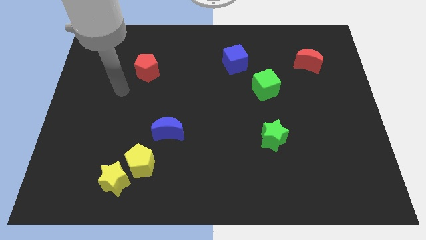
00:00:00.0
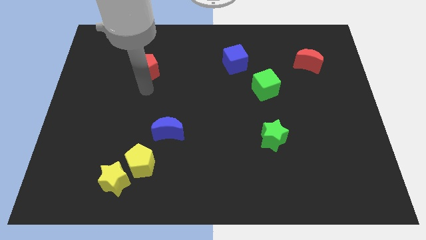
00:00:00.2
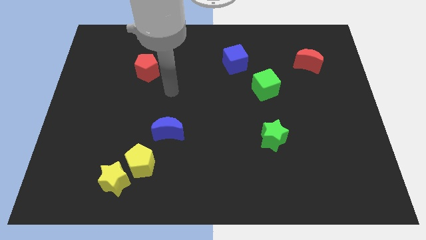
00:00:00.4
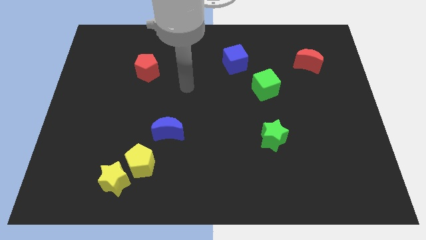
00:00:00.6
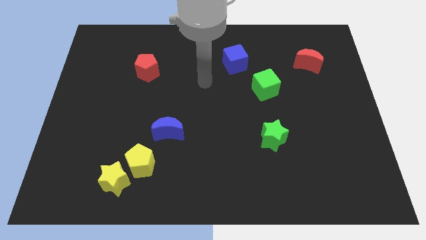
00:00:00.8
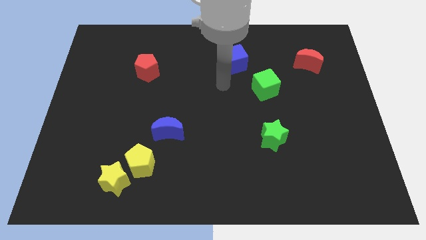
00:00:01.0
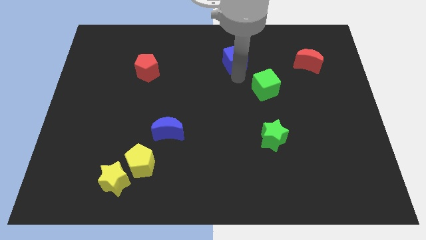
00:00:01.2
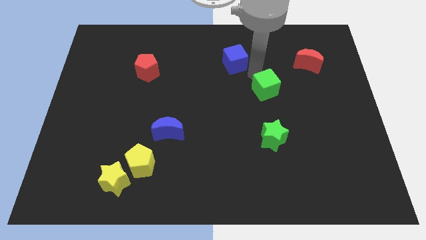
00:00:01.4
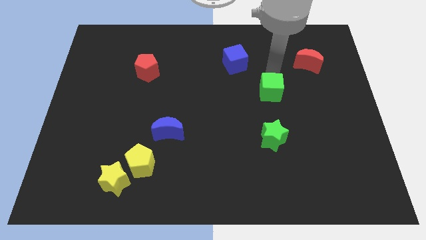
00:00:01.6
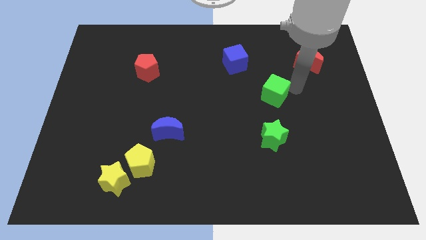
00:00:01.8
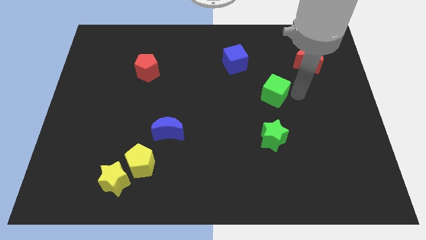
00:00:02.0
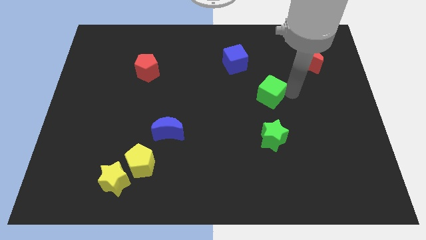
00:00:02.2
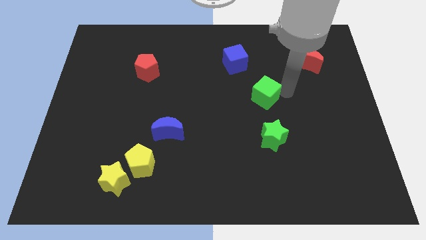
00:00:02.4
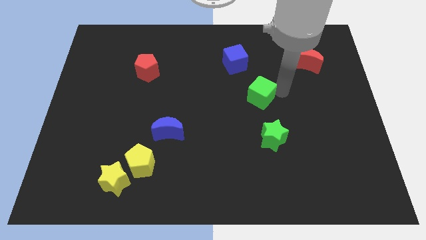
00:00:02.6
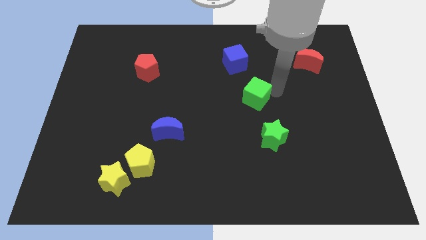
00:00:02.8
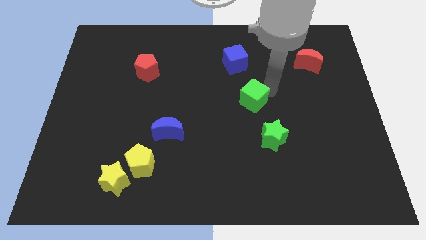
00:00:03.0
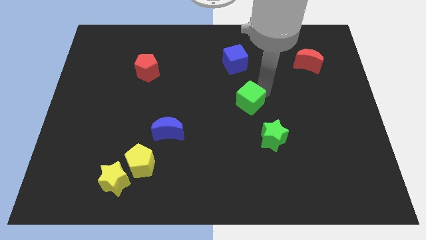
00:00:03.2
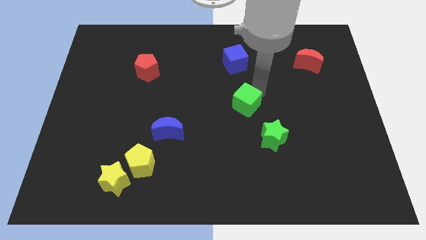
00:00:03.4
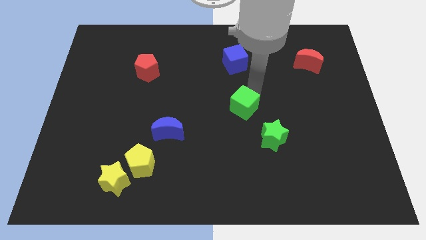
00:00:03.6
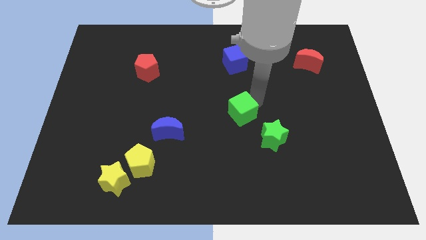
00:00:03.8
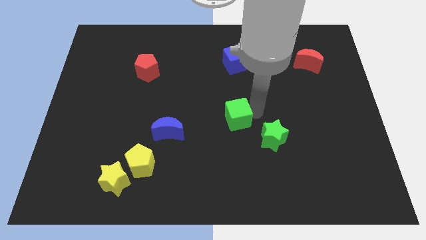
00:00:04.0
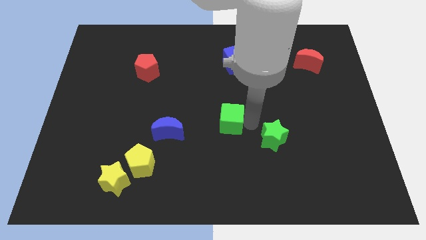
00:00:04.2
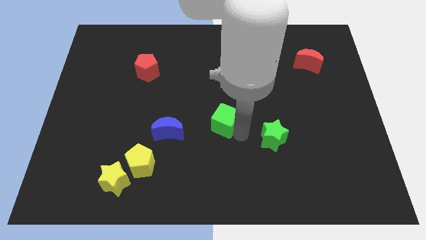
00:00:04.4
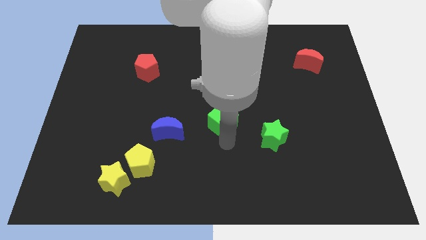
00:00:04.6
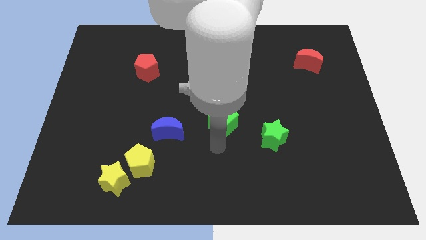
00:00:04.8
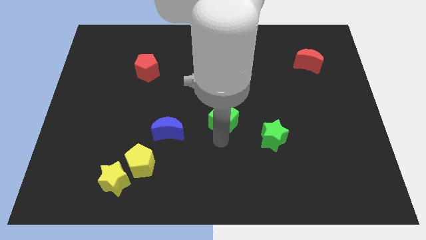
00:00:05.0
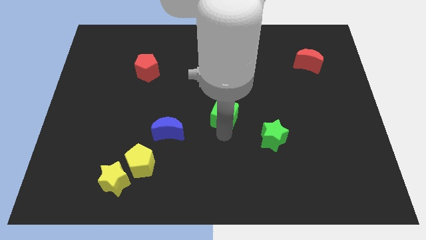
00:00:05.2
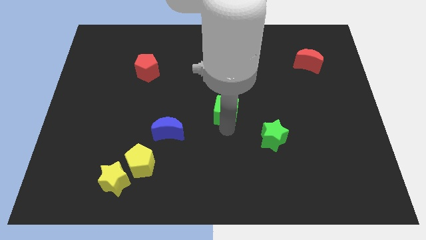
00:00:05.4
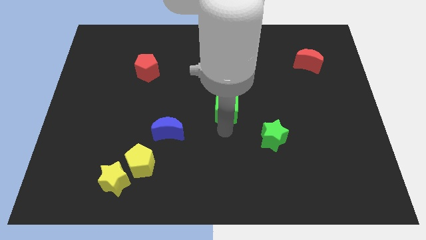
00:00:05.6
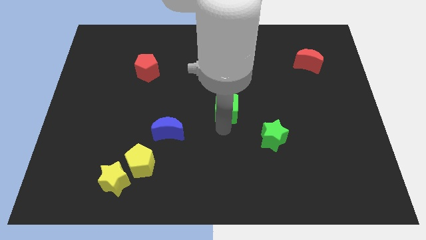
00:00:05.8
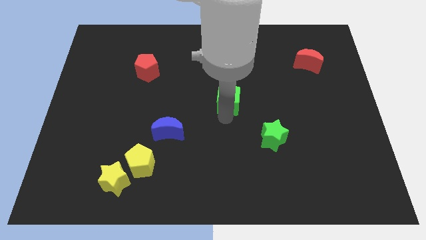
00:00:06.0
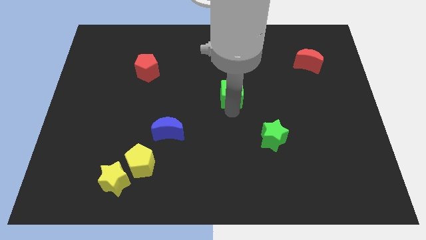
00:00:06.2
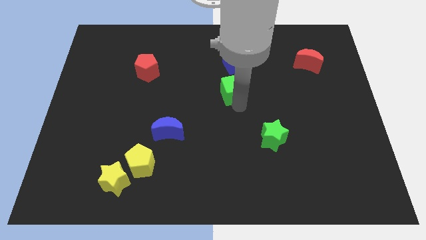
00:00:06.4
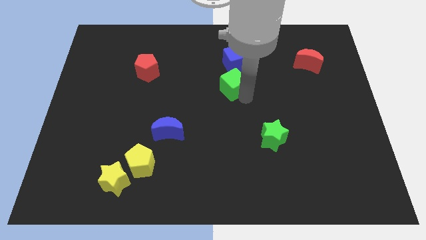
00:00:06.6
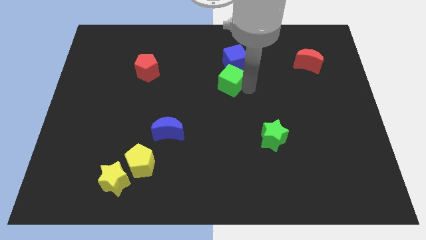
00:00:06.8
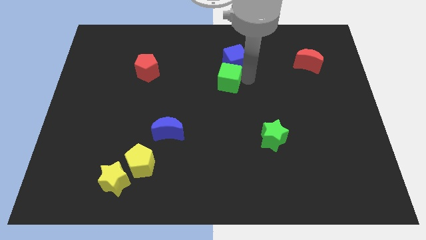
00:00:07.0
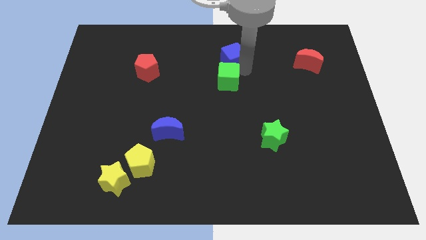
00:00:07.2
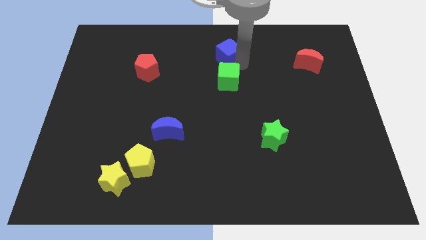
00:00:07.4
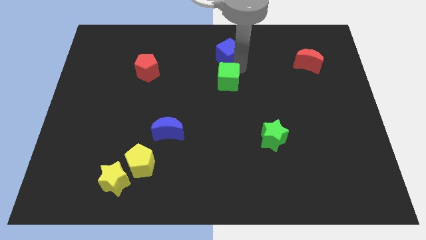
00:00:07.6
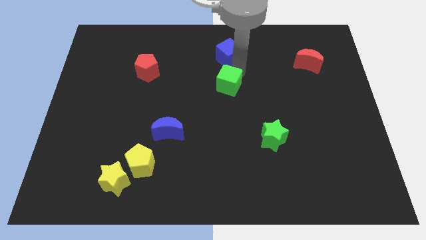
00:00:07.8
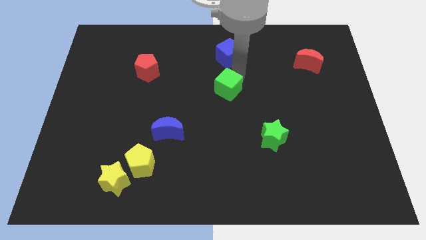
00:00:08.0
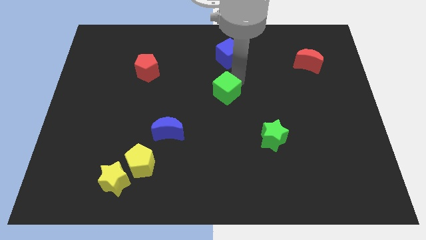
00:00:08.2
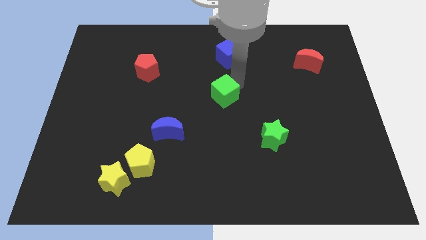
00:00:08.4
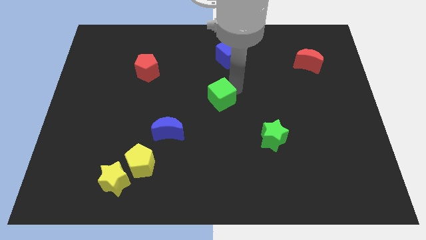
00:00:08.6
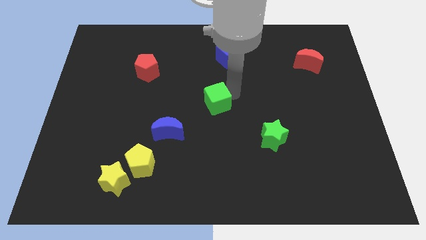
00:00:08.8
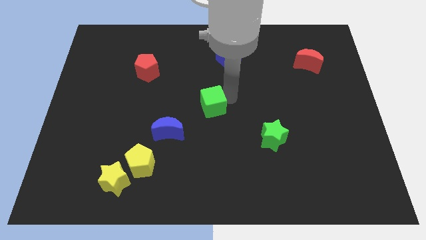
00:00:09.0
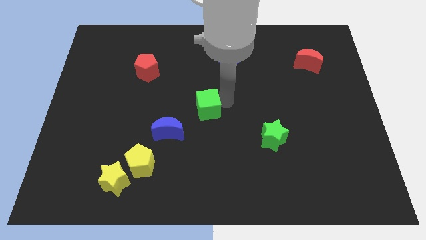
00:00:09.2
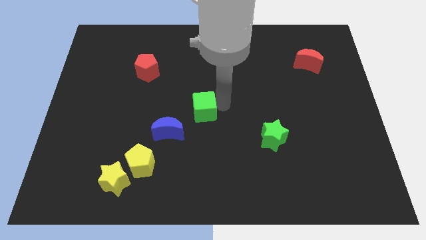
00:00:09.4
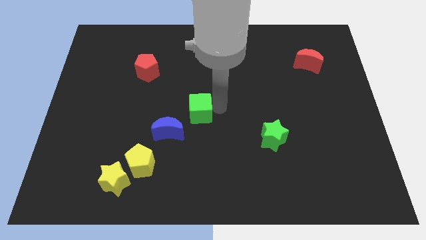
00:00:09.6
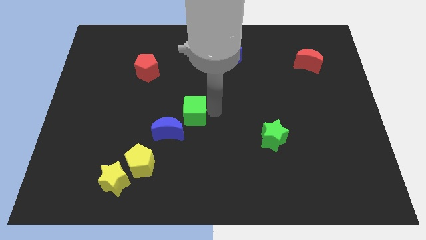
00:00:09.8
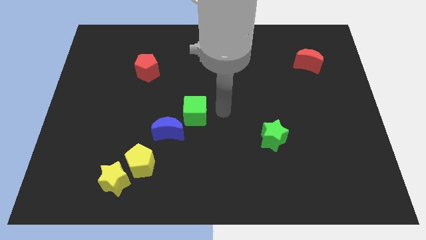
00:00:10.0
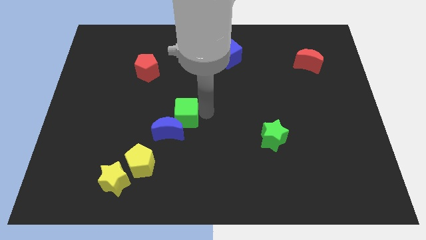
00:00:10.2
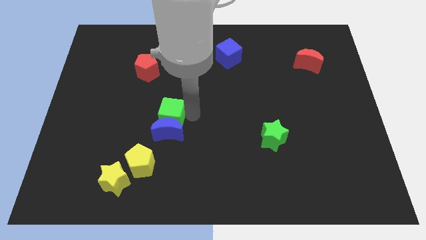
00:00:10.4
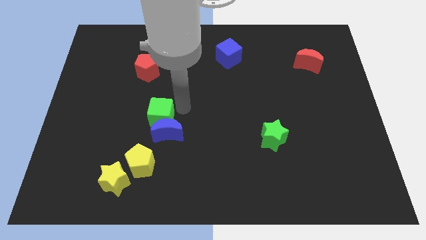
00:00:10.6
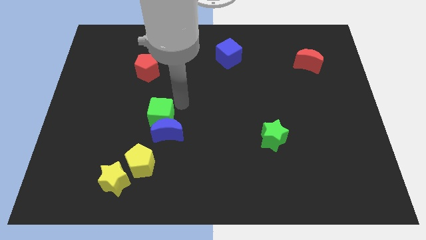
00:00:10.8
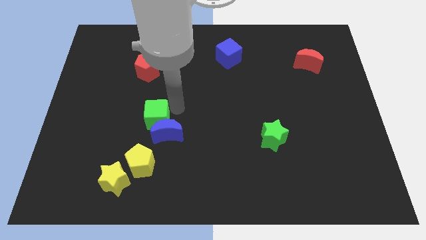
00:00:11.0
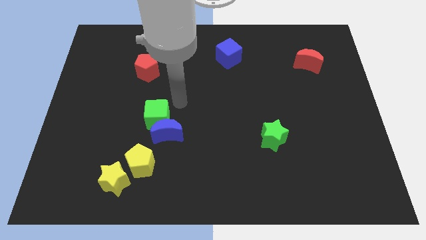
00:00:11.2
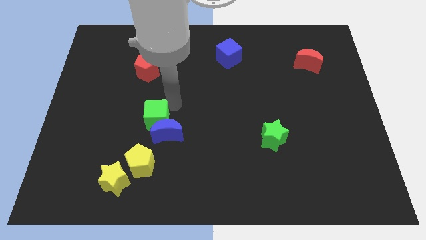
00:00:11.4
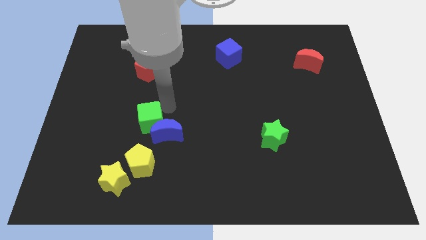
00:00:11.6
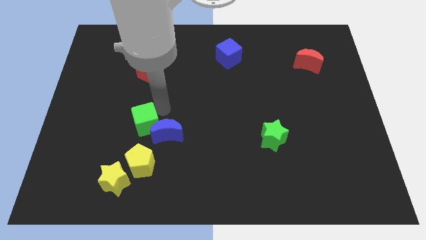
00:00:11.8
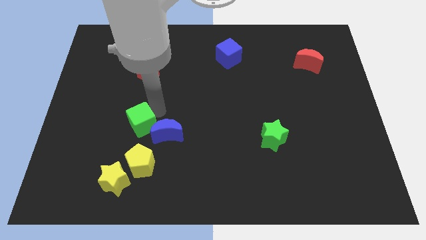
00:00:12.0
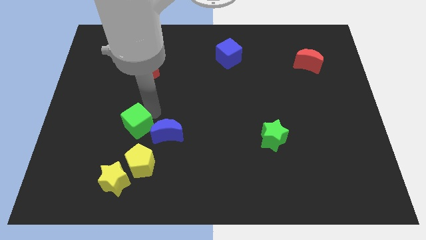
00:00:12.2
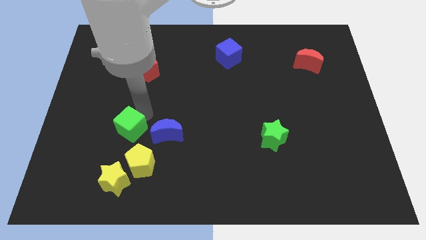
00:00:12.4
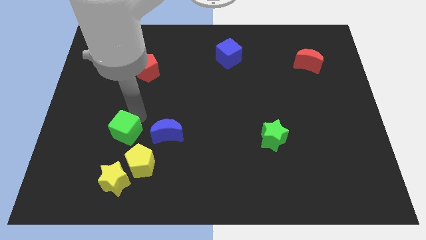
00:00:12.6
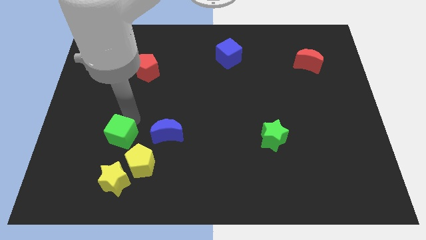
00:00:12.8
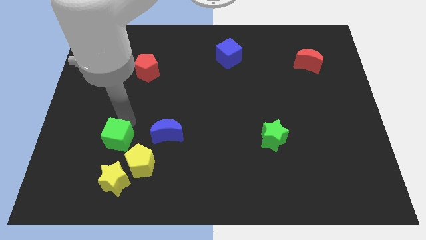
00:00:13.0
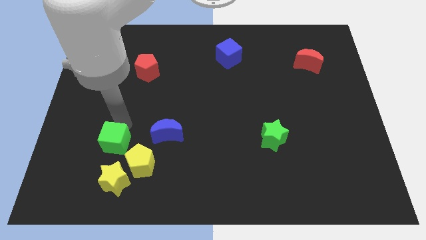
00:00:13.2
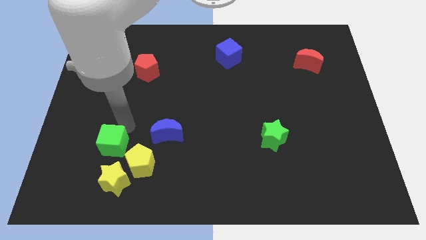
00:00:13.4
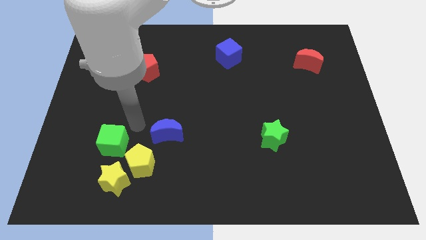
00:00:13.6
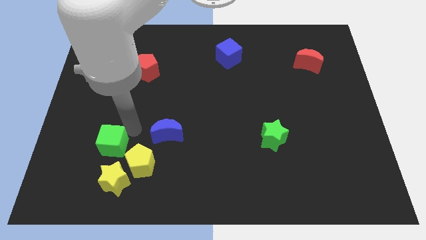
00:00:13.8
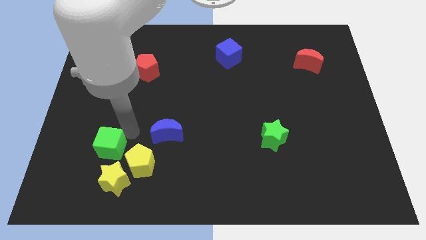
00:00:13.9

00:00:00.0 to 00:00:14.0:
slide the green cube to the top left side of the yellow star

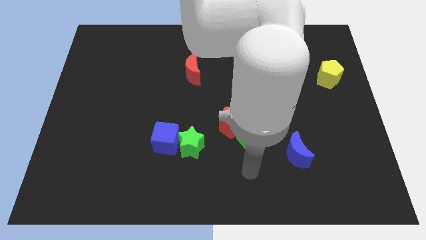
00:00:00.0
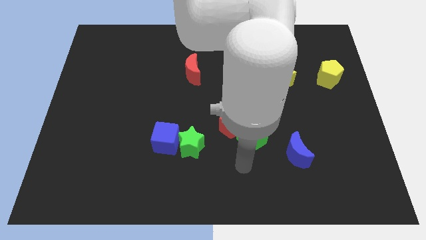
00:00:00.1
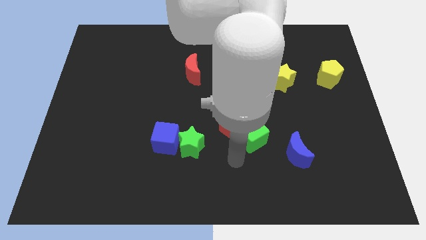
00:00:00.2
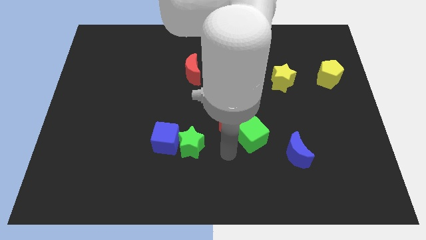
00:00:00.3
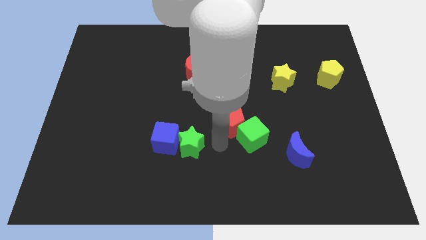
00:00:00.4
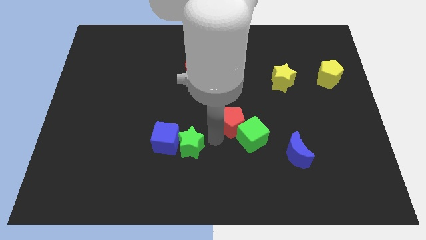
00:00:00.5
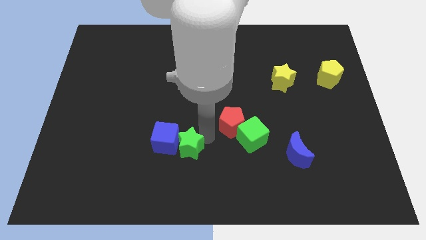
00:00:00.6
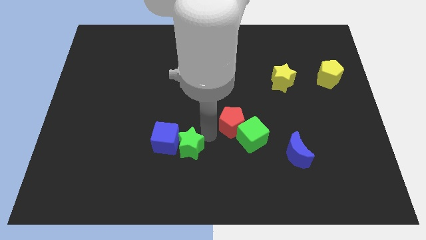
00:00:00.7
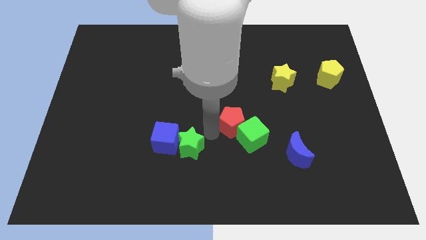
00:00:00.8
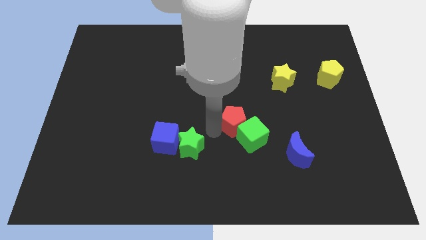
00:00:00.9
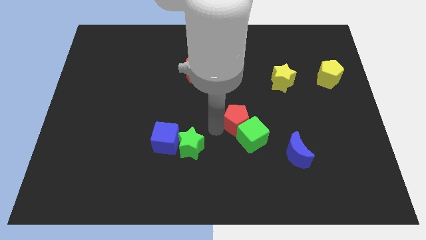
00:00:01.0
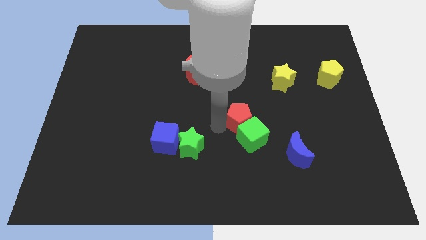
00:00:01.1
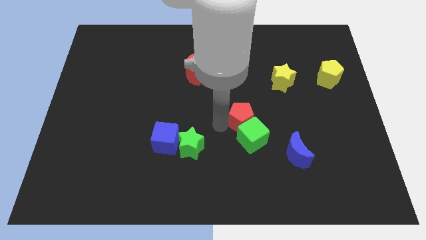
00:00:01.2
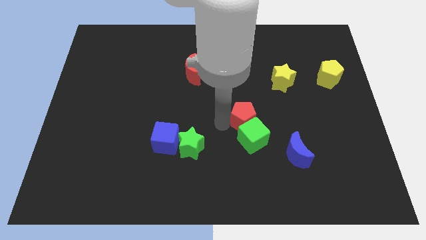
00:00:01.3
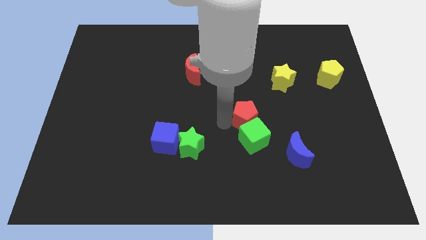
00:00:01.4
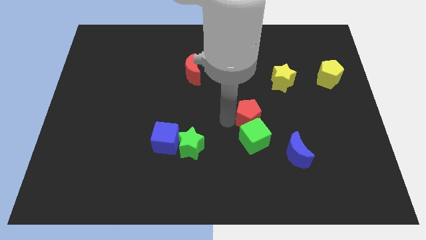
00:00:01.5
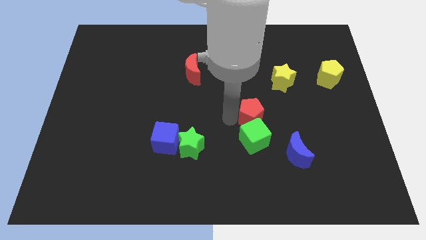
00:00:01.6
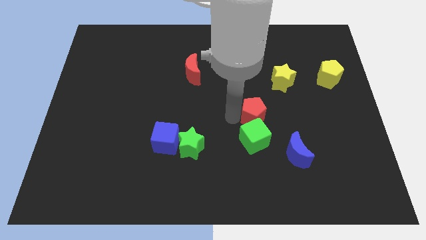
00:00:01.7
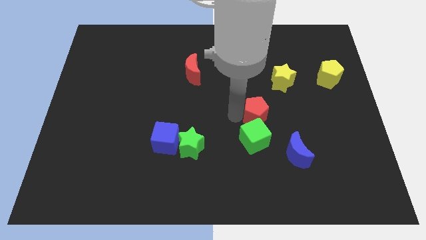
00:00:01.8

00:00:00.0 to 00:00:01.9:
put the red pentagon to the bottom left of the yellow star
